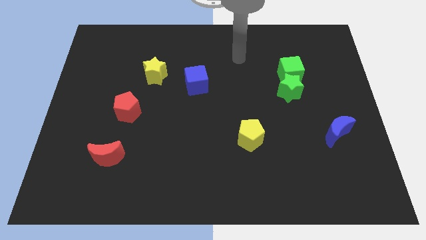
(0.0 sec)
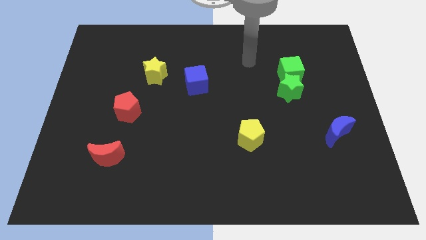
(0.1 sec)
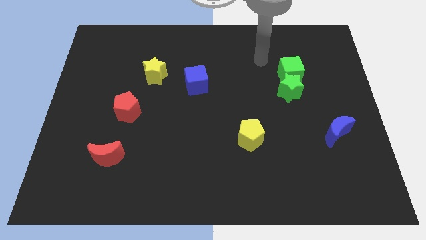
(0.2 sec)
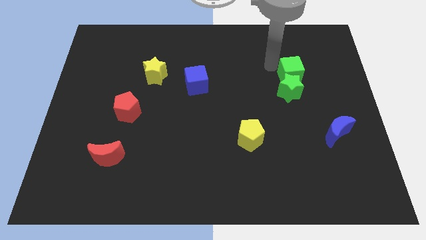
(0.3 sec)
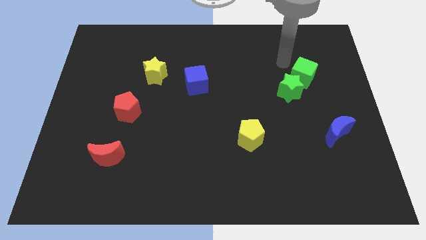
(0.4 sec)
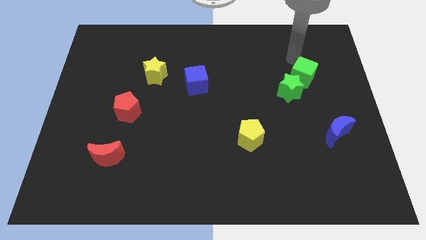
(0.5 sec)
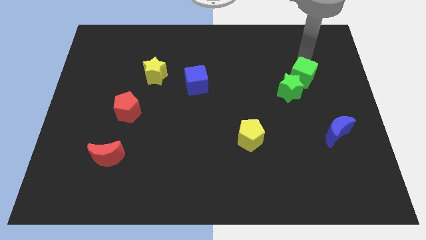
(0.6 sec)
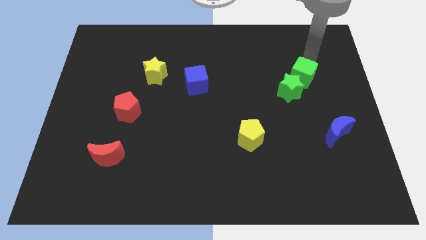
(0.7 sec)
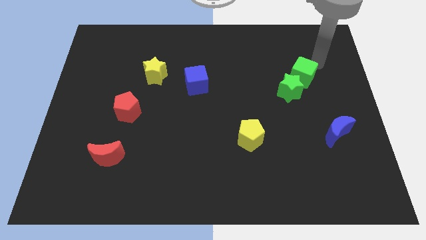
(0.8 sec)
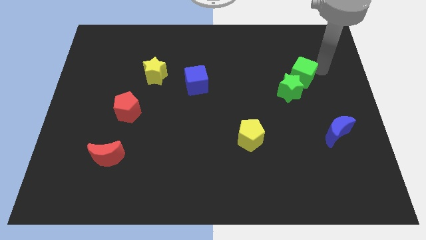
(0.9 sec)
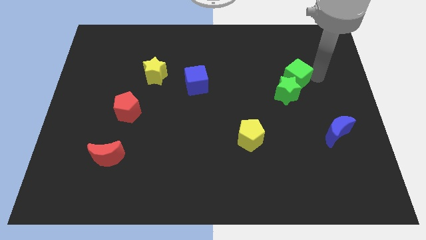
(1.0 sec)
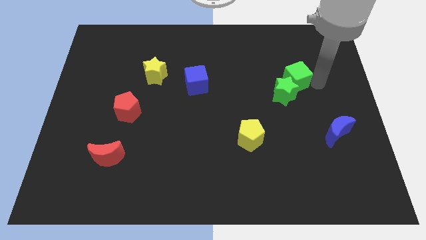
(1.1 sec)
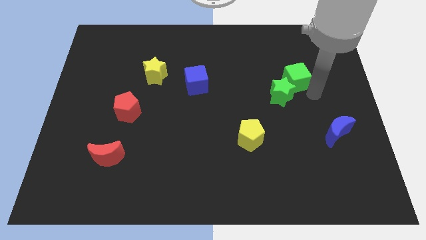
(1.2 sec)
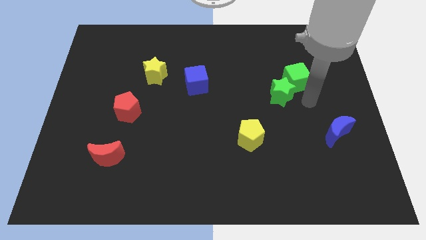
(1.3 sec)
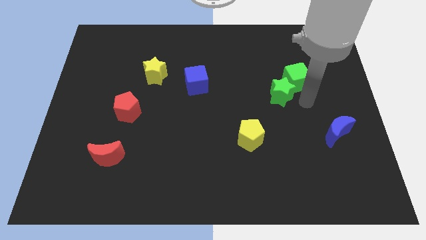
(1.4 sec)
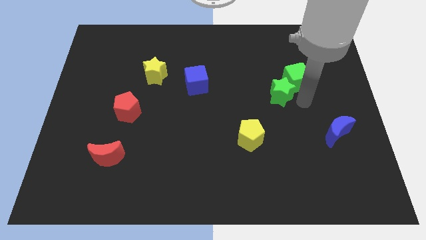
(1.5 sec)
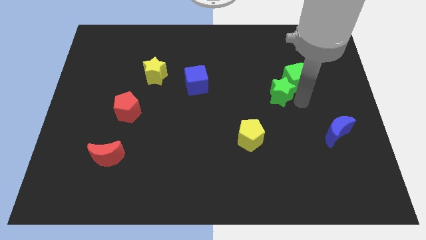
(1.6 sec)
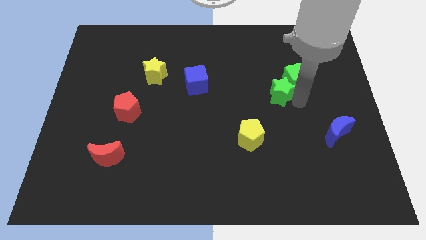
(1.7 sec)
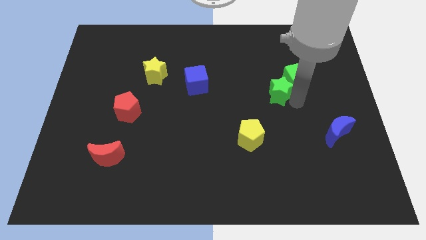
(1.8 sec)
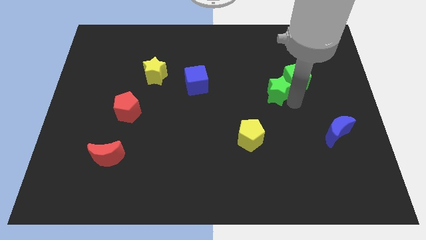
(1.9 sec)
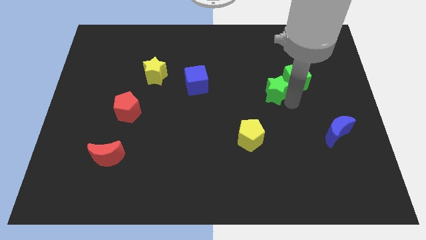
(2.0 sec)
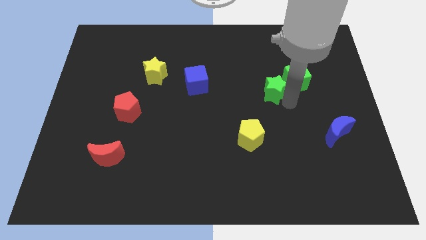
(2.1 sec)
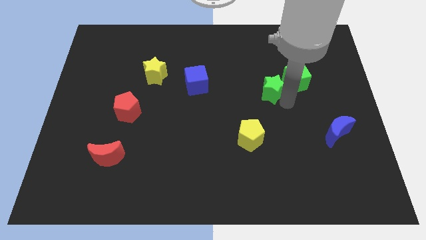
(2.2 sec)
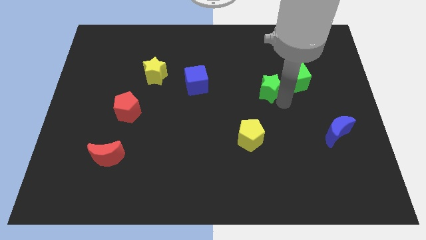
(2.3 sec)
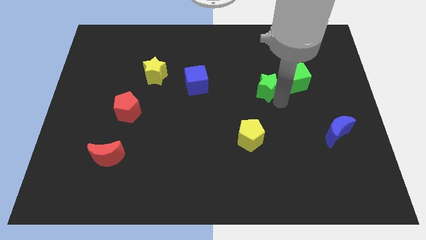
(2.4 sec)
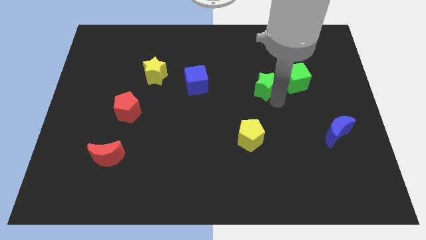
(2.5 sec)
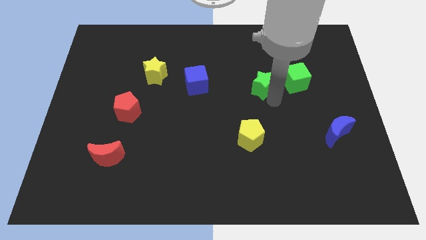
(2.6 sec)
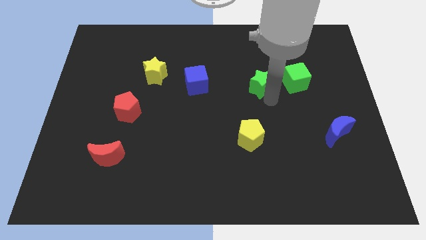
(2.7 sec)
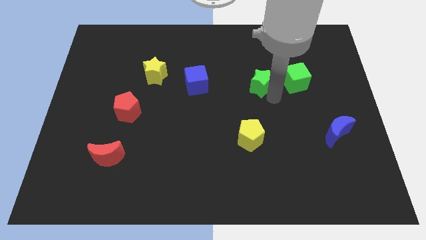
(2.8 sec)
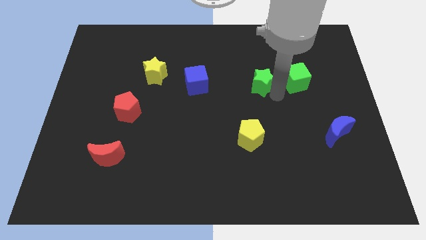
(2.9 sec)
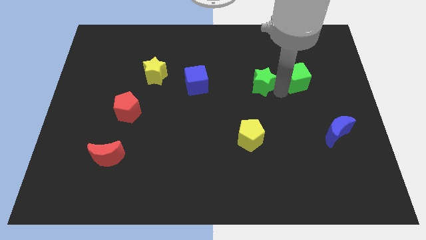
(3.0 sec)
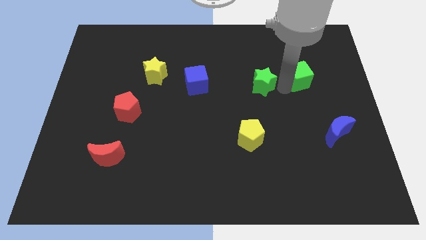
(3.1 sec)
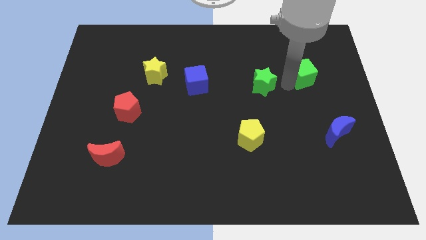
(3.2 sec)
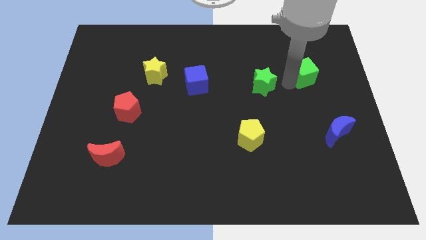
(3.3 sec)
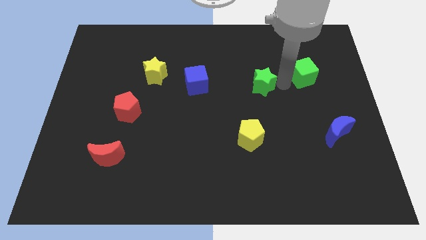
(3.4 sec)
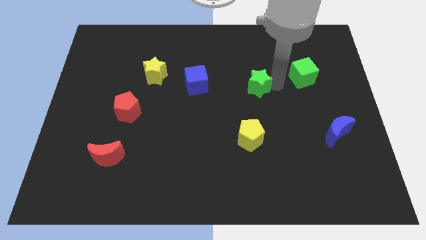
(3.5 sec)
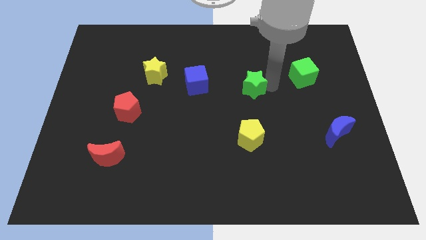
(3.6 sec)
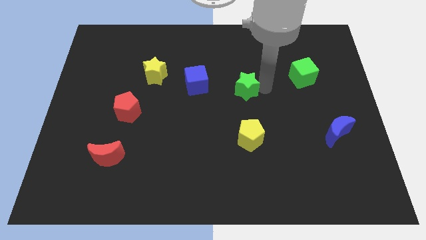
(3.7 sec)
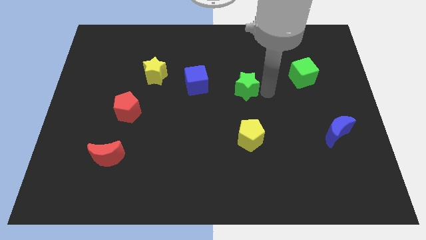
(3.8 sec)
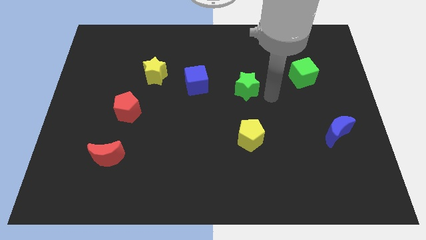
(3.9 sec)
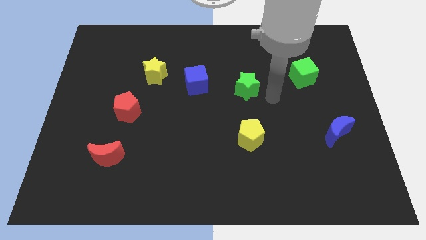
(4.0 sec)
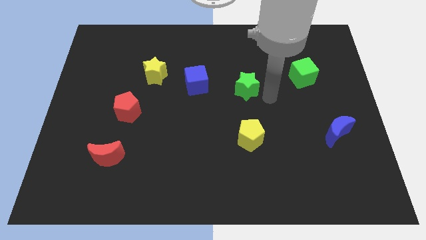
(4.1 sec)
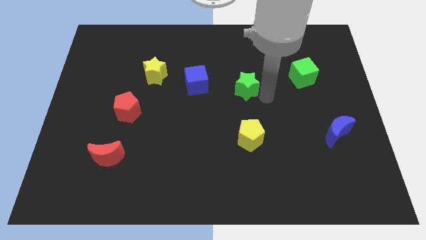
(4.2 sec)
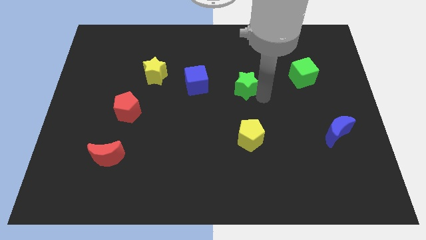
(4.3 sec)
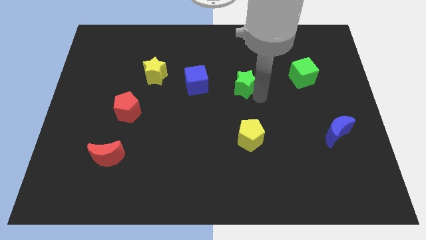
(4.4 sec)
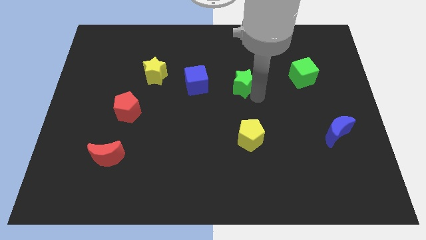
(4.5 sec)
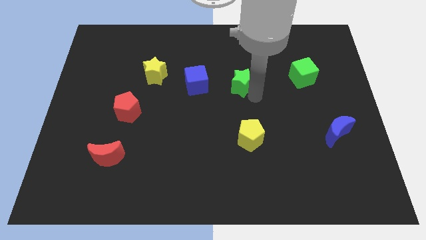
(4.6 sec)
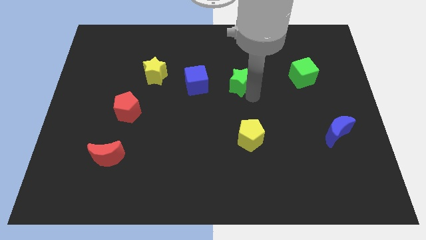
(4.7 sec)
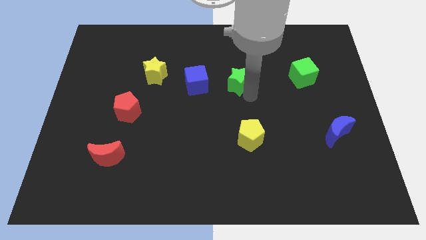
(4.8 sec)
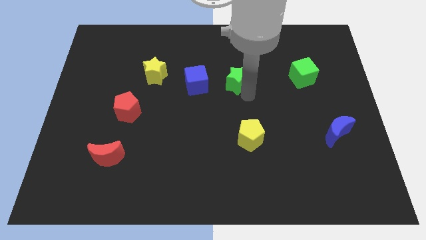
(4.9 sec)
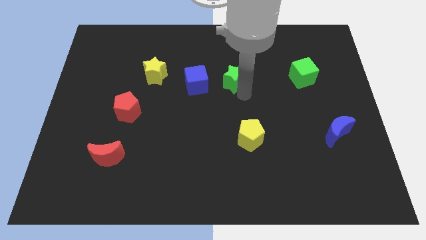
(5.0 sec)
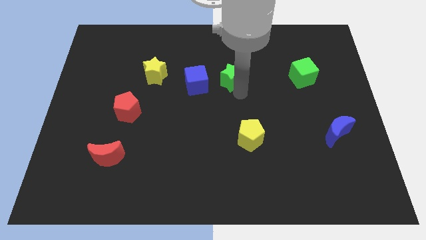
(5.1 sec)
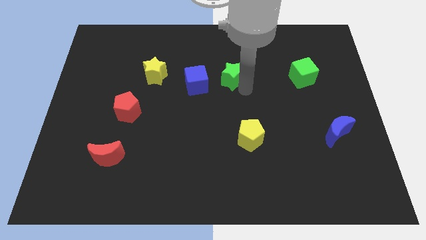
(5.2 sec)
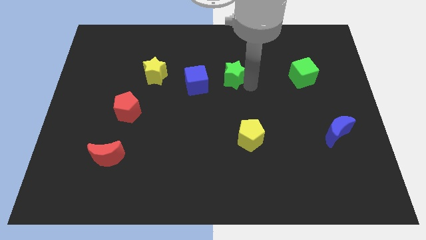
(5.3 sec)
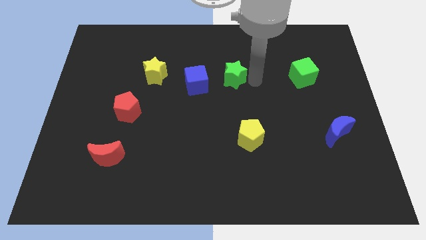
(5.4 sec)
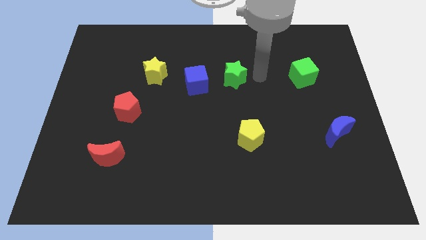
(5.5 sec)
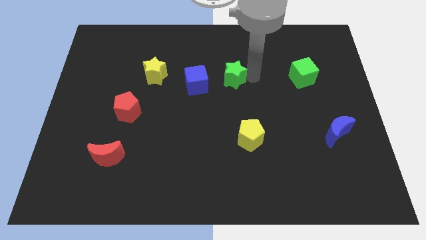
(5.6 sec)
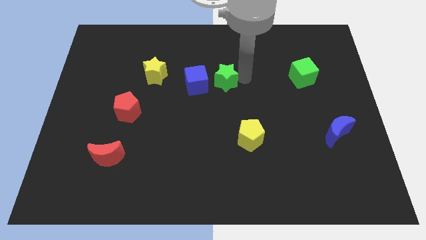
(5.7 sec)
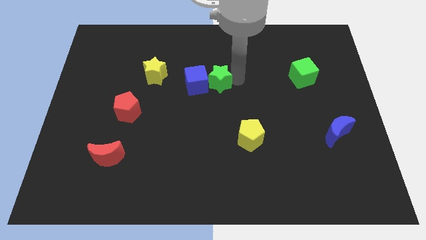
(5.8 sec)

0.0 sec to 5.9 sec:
move the green star close to the blue cube

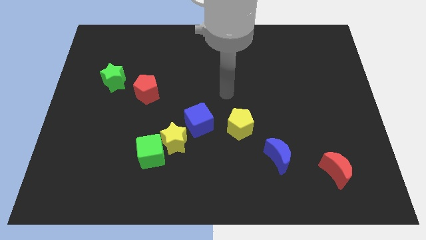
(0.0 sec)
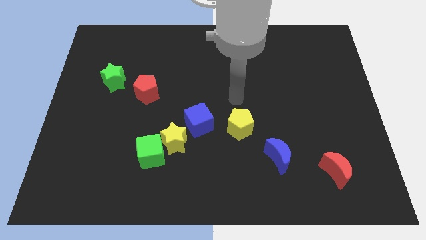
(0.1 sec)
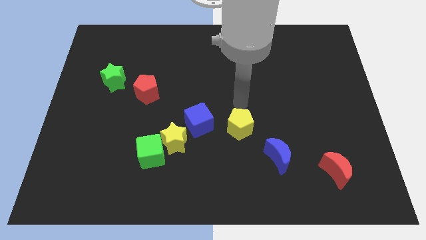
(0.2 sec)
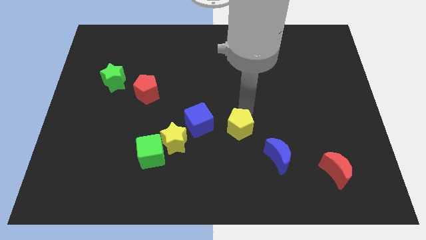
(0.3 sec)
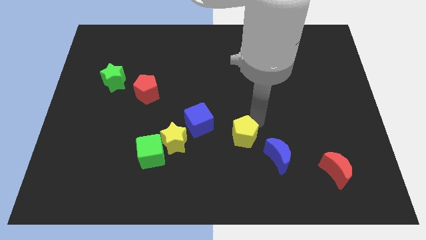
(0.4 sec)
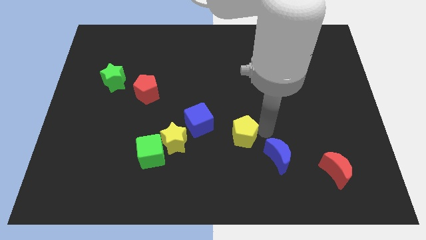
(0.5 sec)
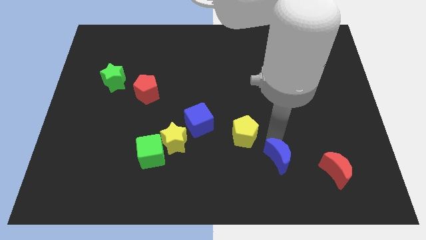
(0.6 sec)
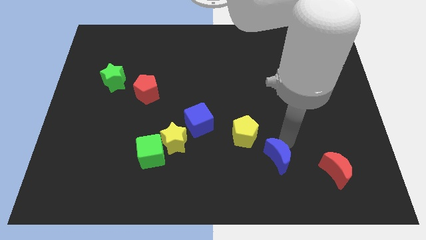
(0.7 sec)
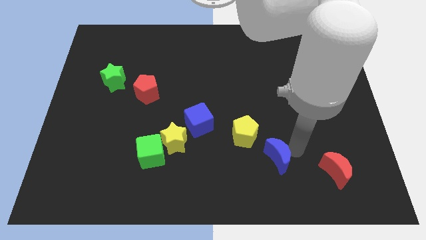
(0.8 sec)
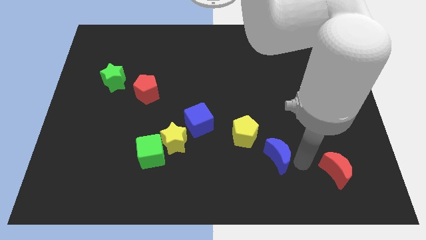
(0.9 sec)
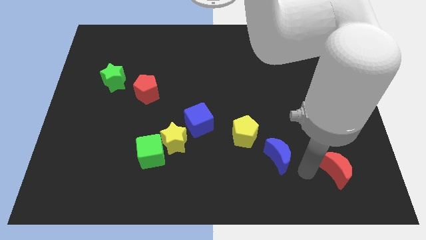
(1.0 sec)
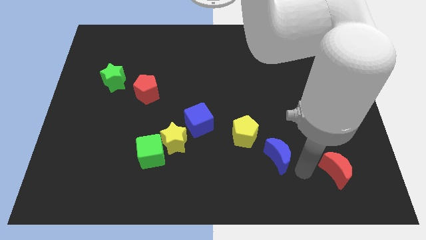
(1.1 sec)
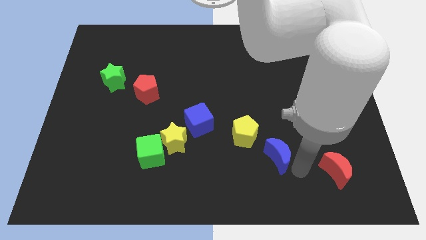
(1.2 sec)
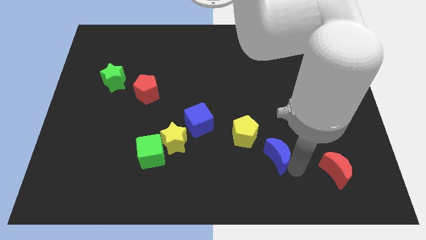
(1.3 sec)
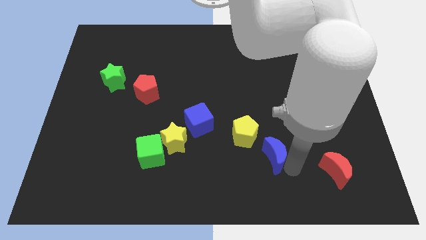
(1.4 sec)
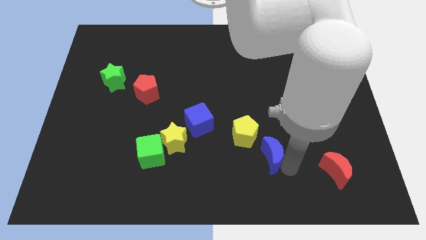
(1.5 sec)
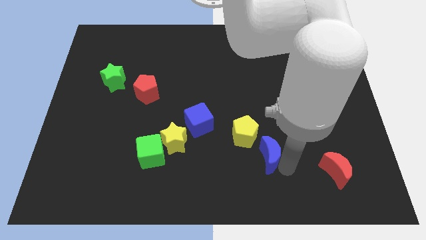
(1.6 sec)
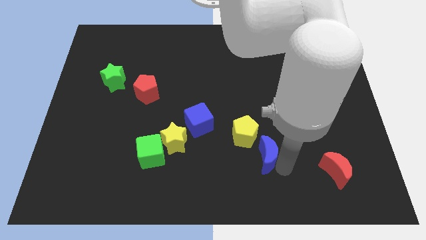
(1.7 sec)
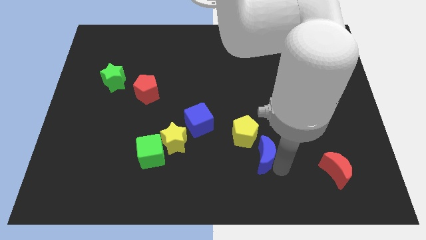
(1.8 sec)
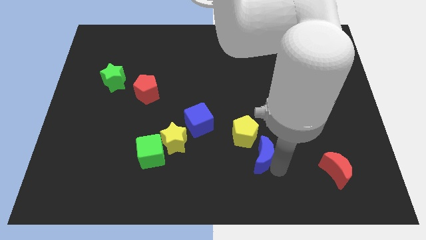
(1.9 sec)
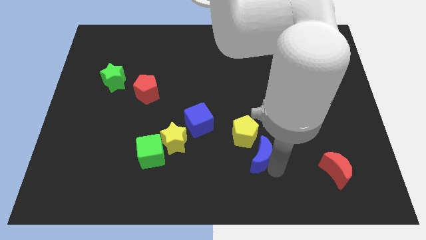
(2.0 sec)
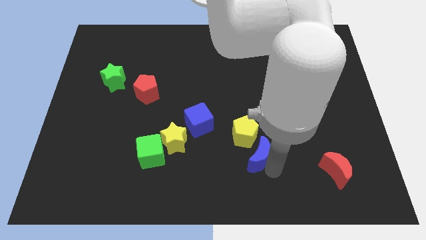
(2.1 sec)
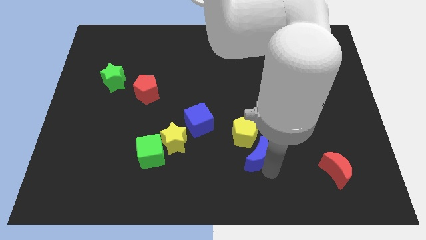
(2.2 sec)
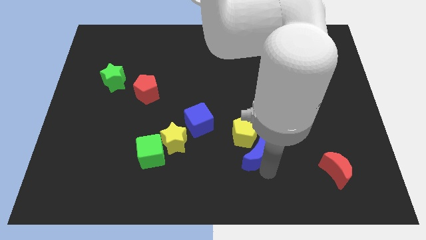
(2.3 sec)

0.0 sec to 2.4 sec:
put the blue moon next to the yellow pentagon
